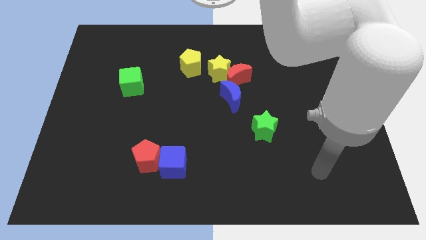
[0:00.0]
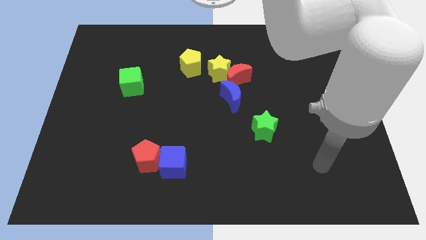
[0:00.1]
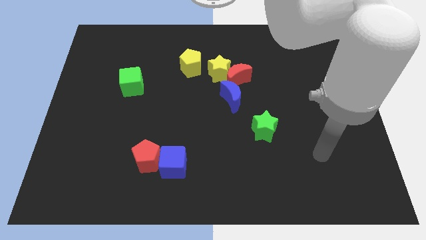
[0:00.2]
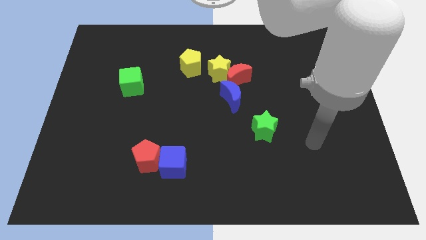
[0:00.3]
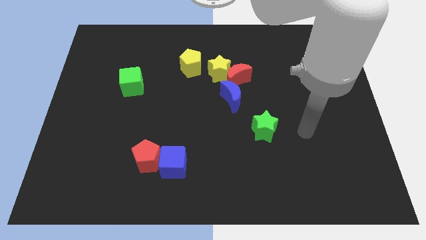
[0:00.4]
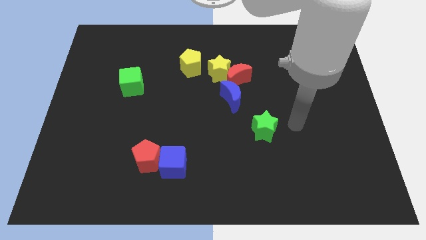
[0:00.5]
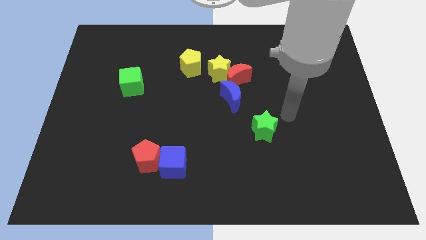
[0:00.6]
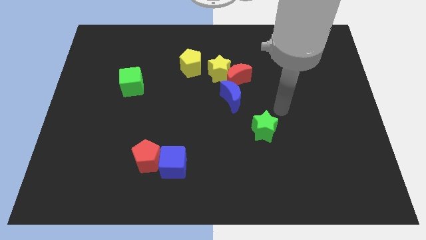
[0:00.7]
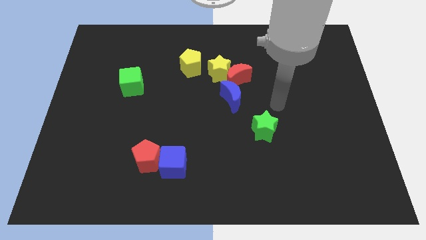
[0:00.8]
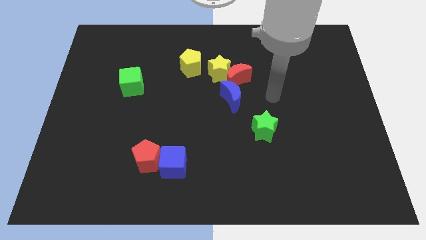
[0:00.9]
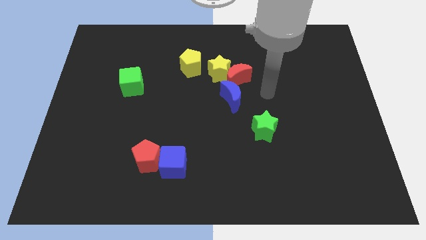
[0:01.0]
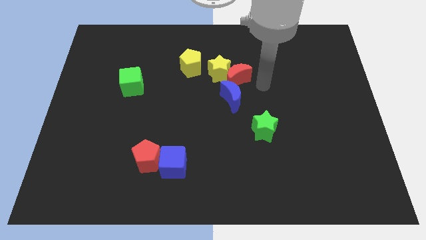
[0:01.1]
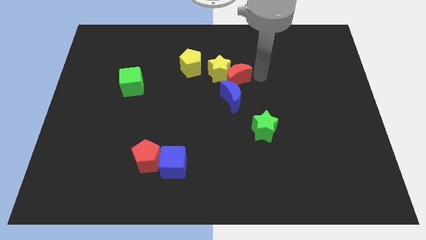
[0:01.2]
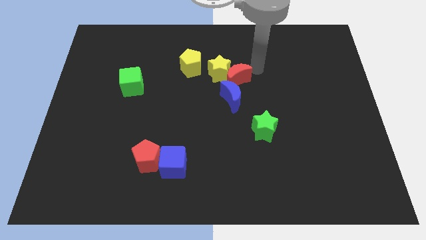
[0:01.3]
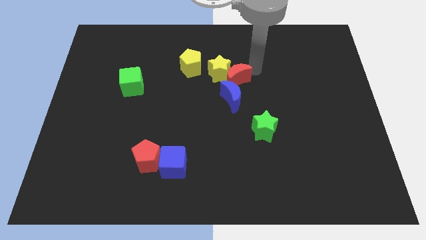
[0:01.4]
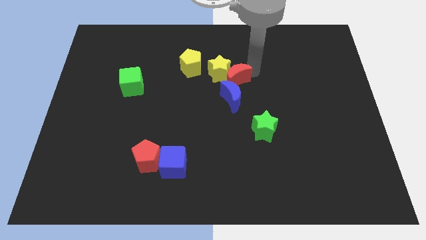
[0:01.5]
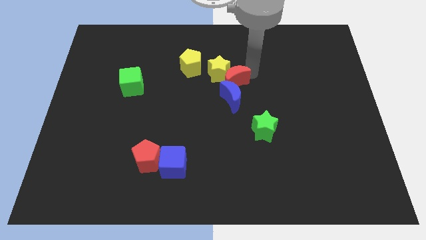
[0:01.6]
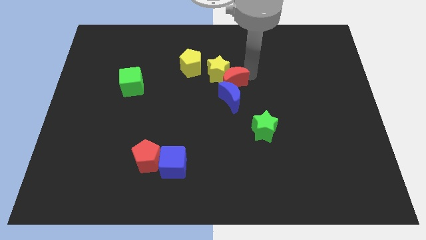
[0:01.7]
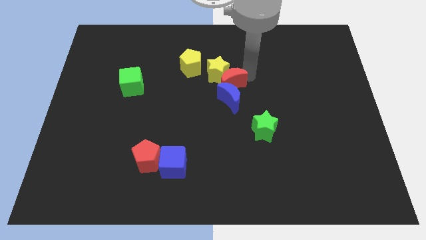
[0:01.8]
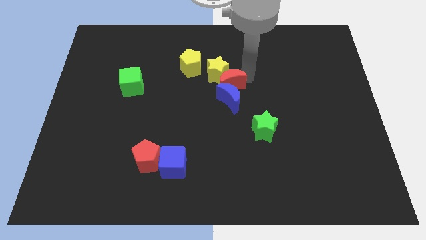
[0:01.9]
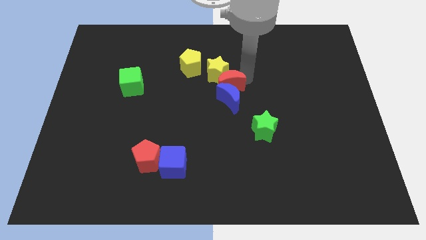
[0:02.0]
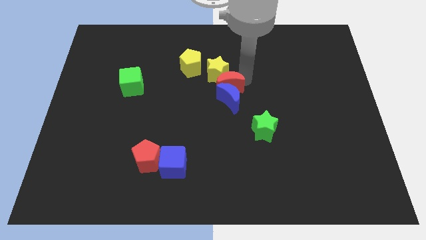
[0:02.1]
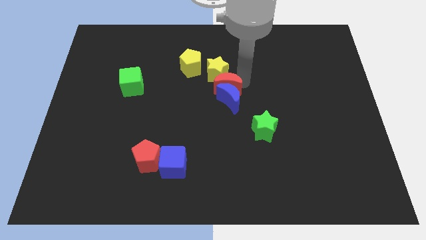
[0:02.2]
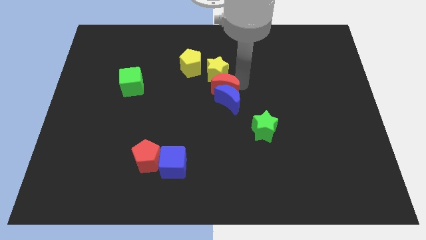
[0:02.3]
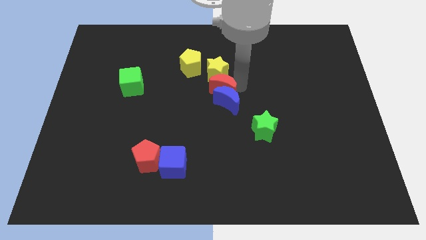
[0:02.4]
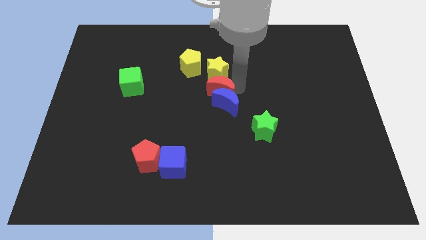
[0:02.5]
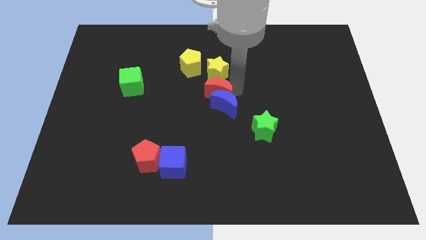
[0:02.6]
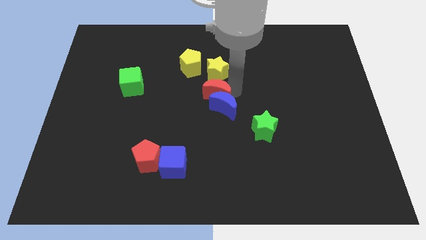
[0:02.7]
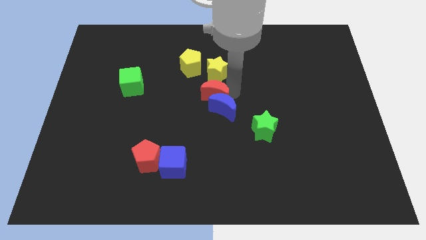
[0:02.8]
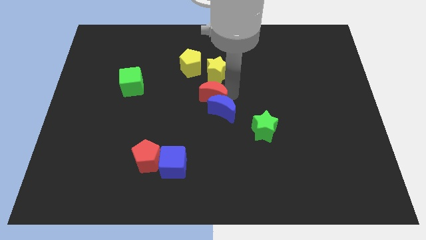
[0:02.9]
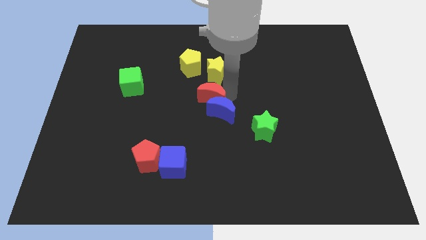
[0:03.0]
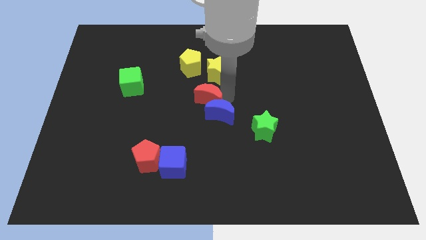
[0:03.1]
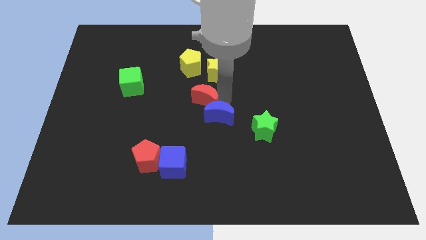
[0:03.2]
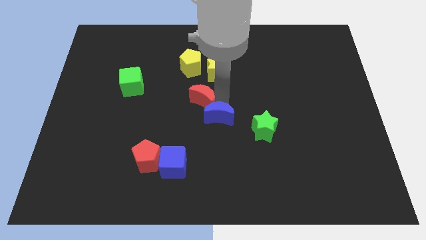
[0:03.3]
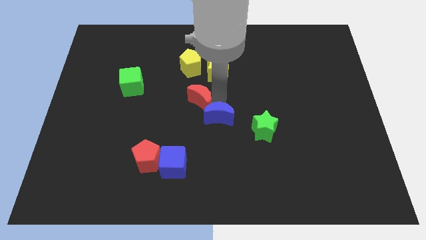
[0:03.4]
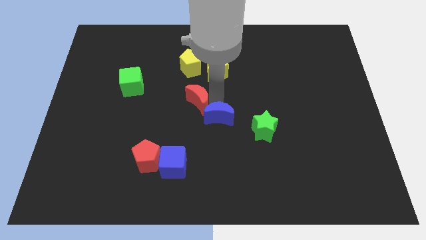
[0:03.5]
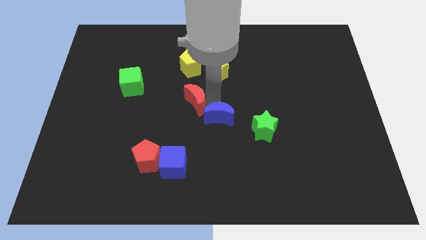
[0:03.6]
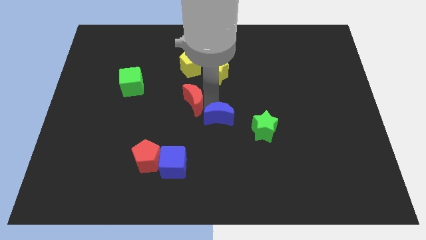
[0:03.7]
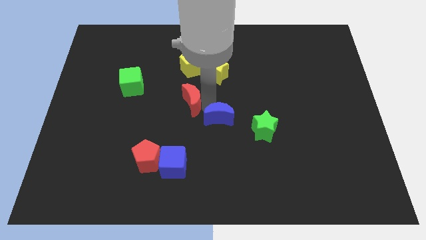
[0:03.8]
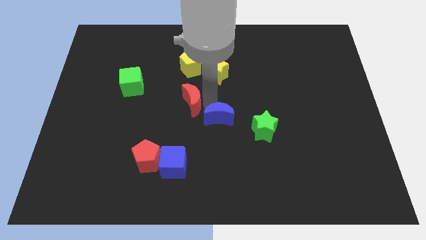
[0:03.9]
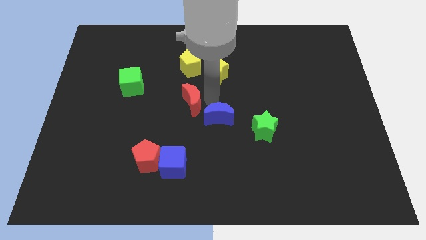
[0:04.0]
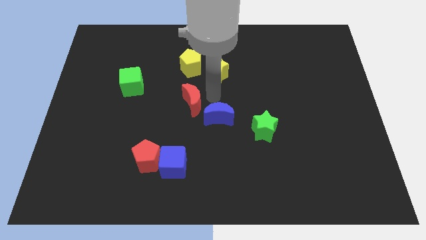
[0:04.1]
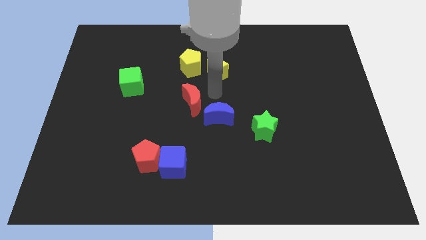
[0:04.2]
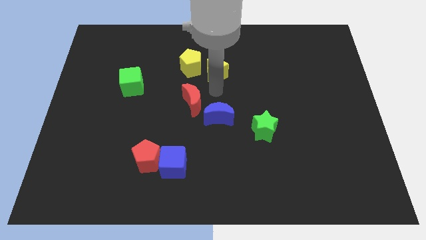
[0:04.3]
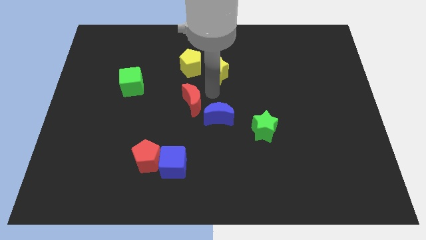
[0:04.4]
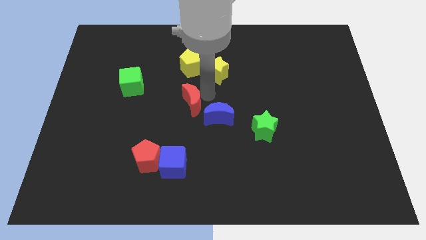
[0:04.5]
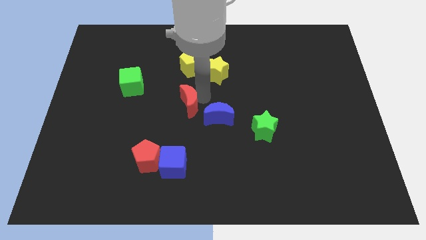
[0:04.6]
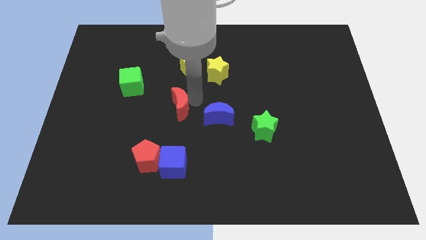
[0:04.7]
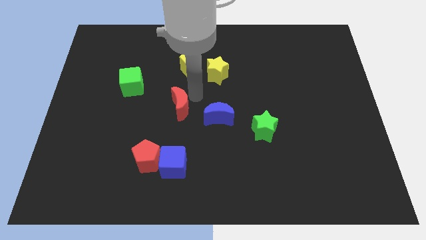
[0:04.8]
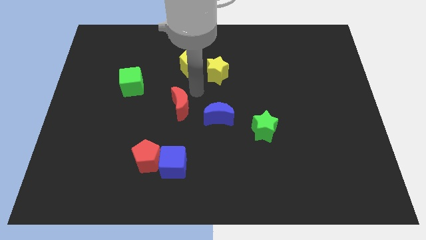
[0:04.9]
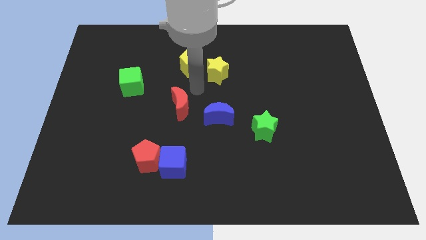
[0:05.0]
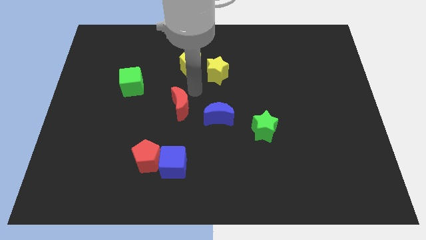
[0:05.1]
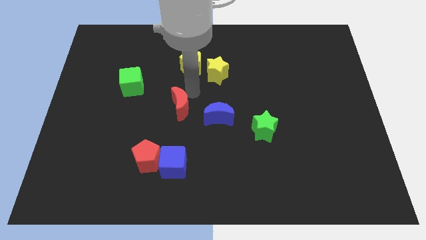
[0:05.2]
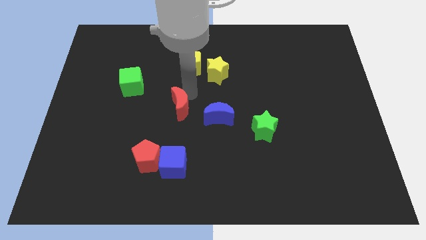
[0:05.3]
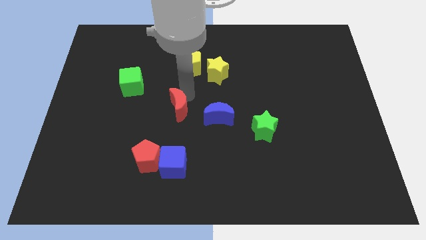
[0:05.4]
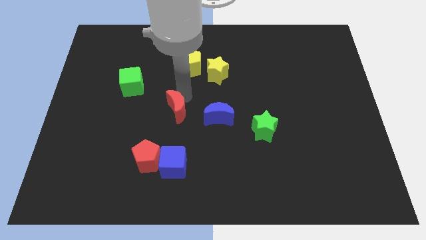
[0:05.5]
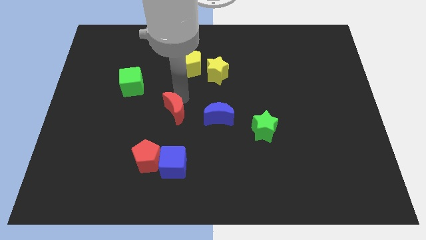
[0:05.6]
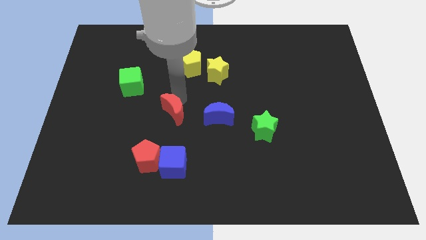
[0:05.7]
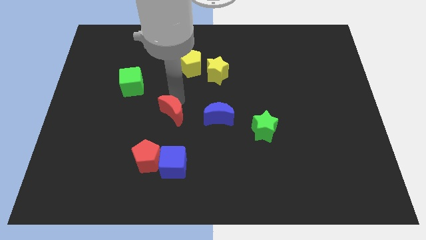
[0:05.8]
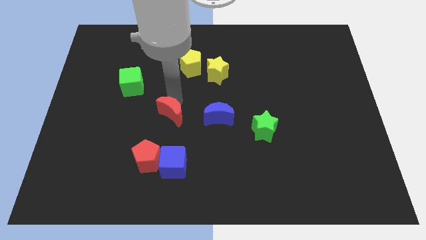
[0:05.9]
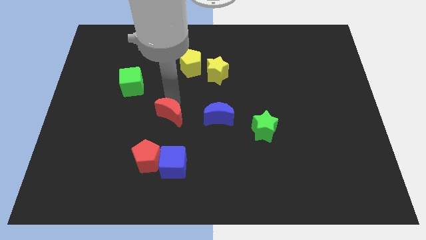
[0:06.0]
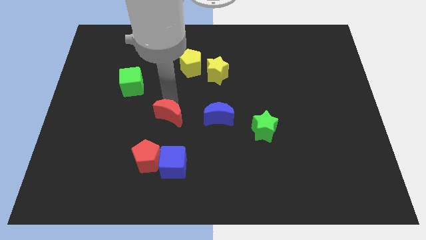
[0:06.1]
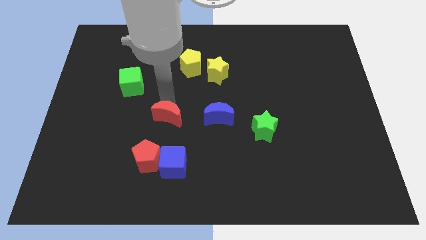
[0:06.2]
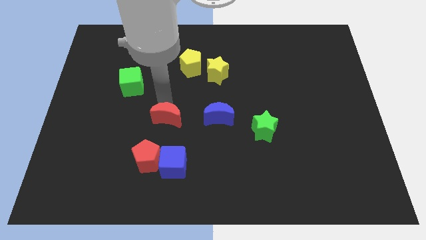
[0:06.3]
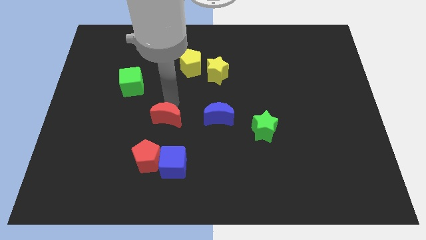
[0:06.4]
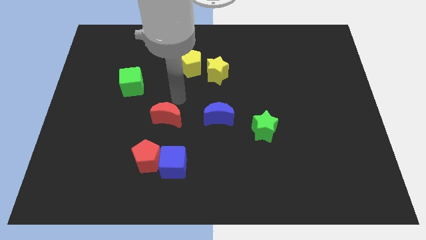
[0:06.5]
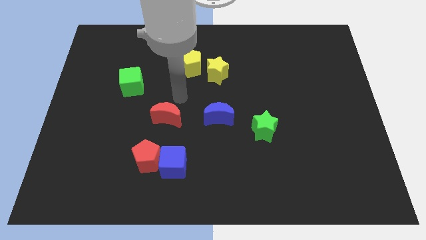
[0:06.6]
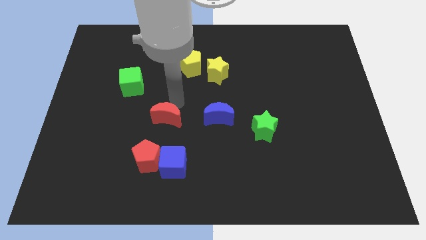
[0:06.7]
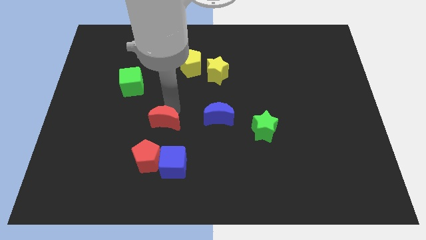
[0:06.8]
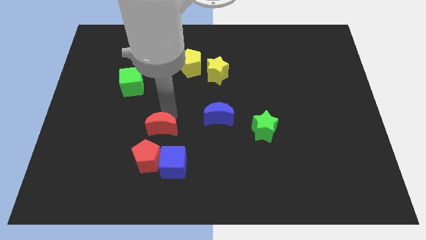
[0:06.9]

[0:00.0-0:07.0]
slide the red moon to the top left of the blue cube
